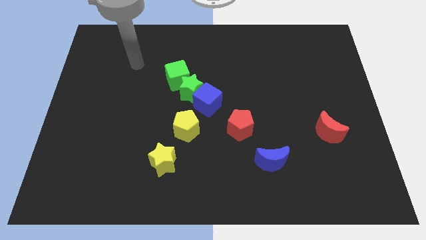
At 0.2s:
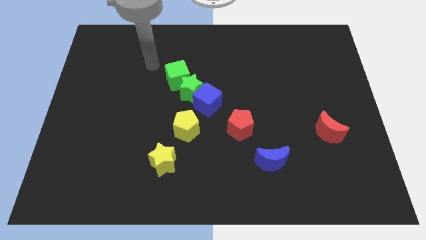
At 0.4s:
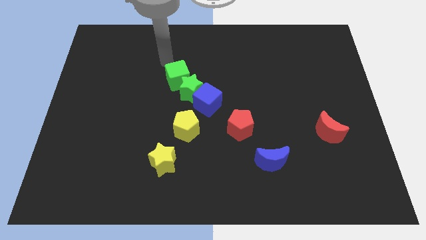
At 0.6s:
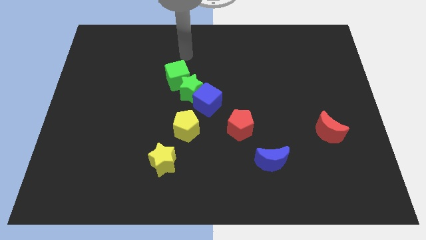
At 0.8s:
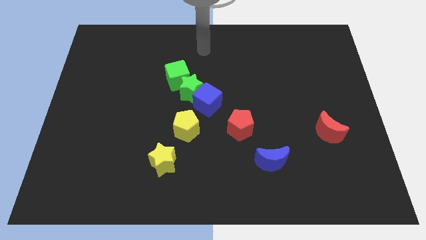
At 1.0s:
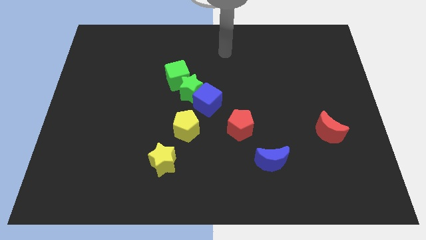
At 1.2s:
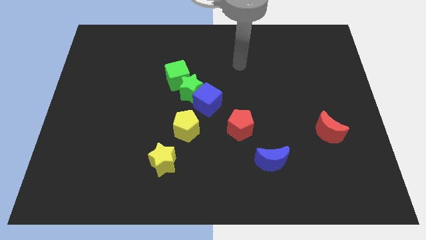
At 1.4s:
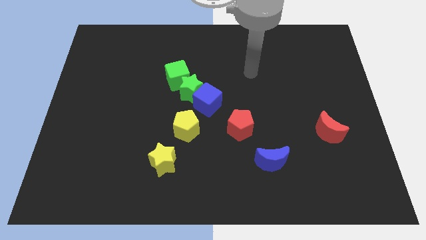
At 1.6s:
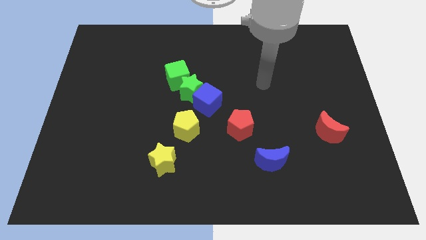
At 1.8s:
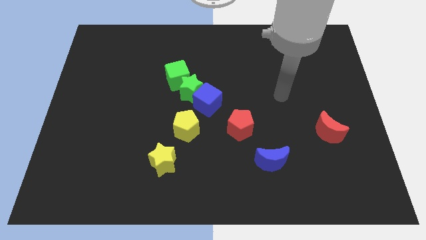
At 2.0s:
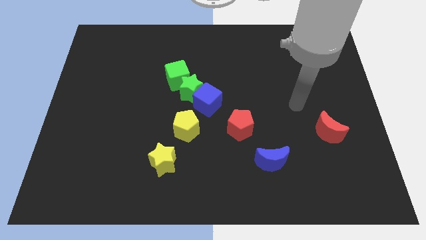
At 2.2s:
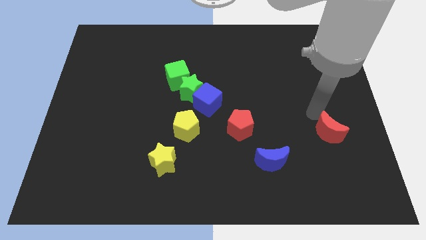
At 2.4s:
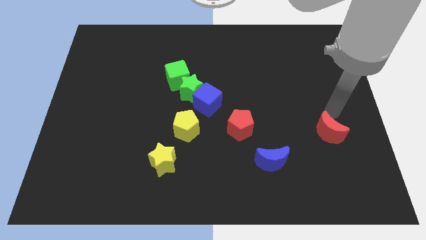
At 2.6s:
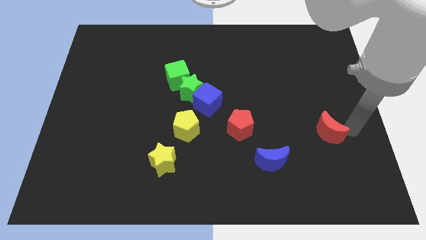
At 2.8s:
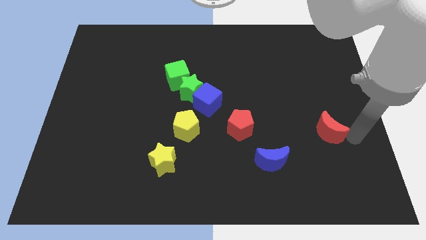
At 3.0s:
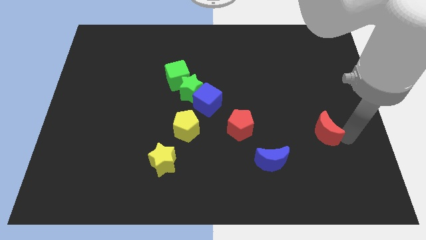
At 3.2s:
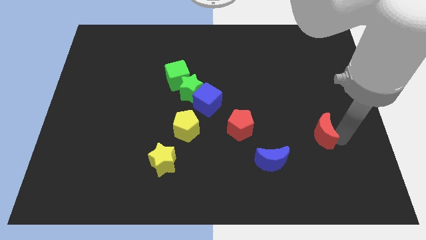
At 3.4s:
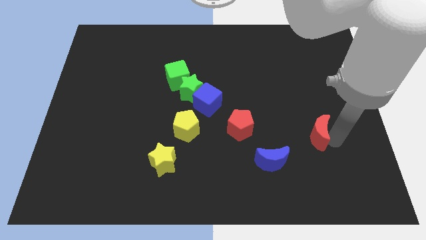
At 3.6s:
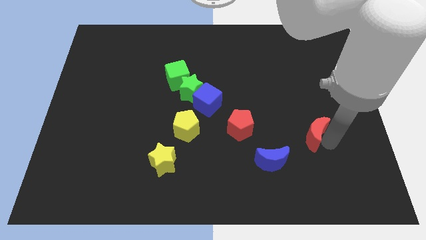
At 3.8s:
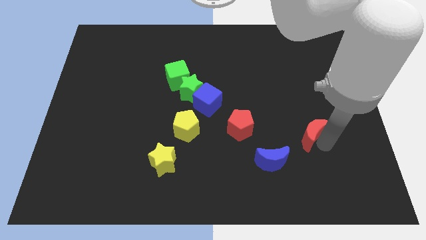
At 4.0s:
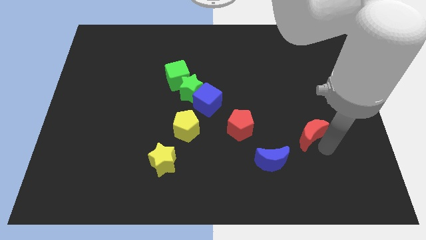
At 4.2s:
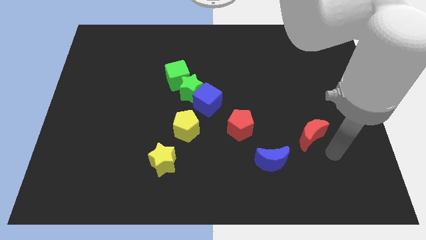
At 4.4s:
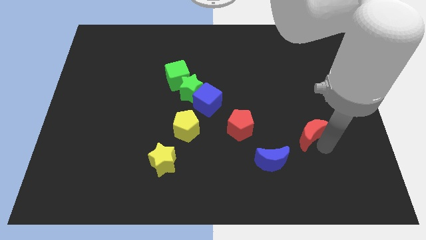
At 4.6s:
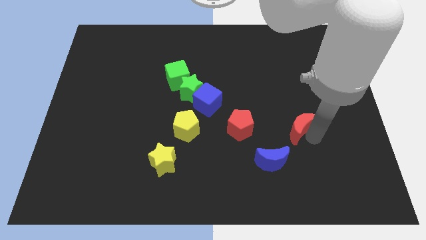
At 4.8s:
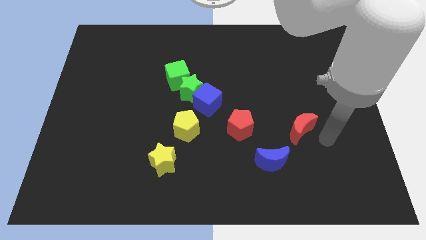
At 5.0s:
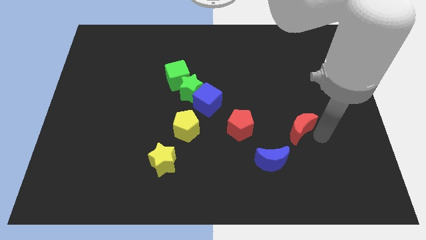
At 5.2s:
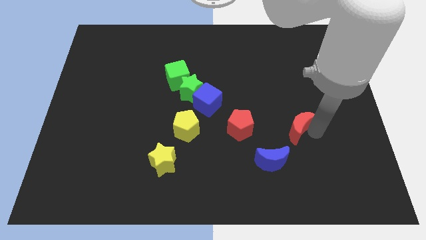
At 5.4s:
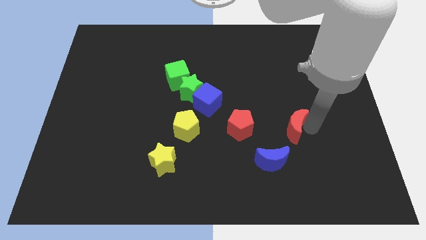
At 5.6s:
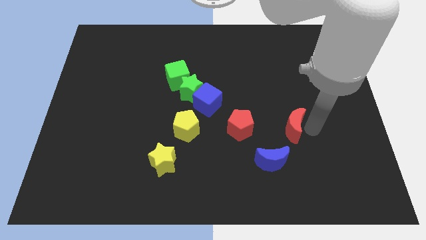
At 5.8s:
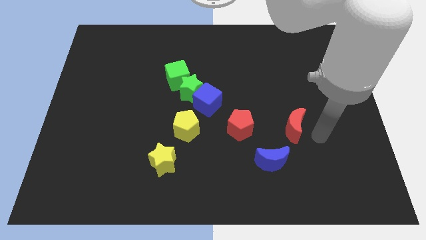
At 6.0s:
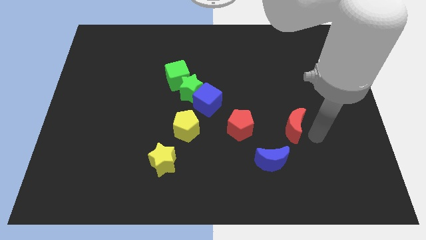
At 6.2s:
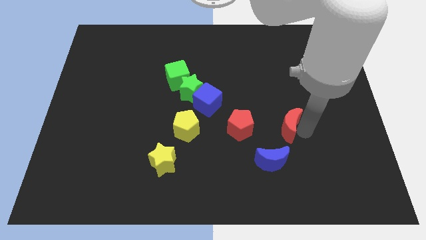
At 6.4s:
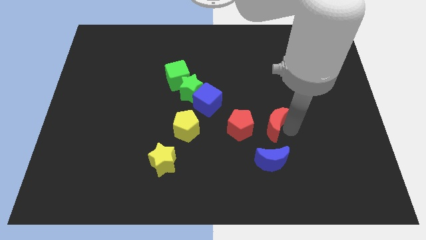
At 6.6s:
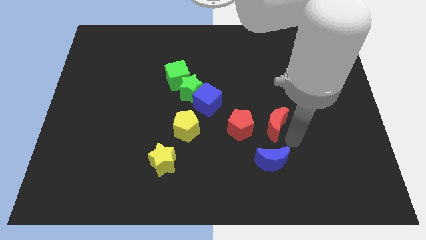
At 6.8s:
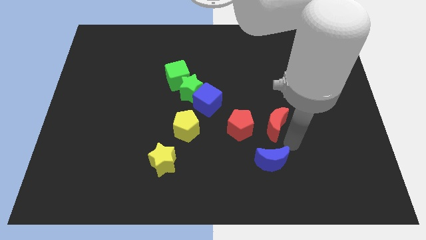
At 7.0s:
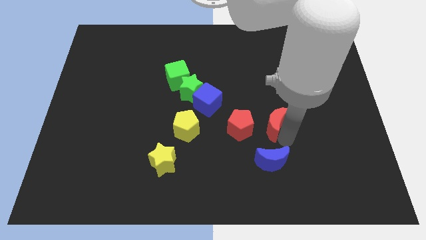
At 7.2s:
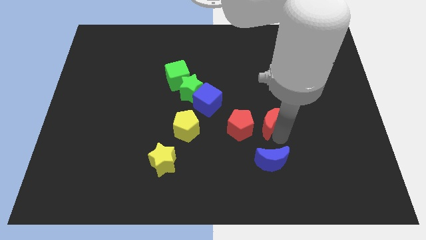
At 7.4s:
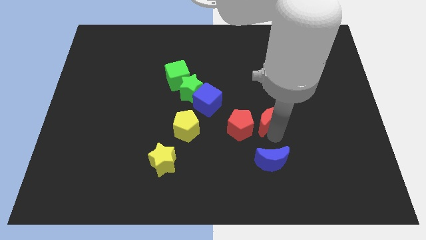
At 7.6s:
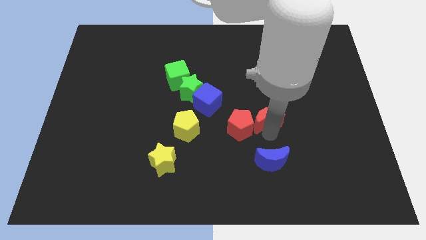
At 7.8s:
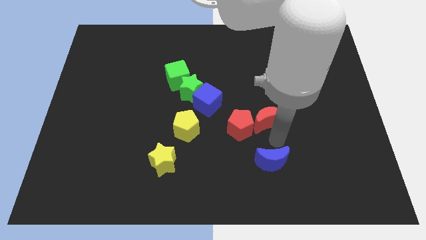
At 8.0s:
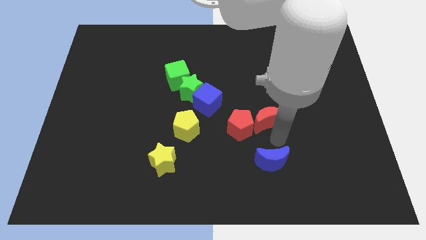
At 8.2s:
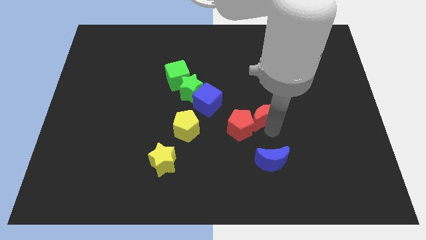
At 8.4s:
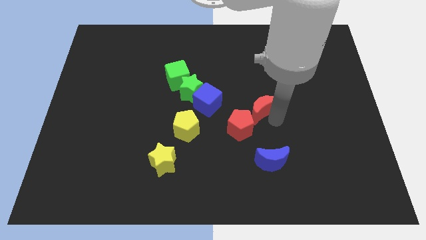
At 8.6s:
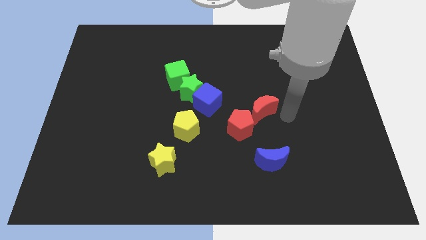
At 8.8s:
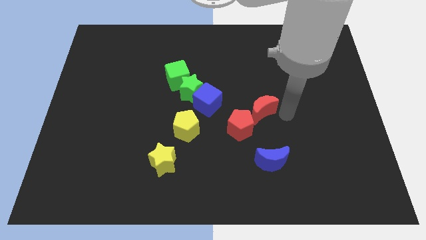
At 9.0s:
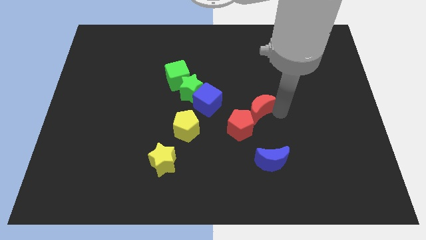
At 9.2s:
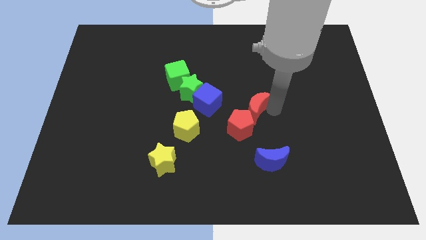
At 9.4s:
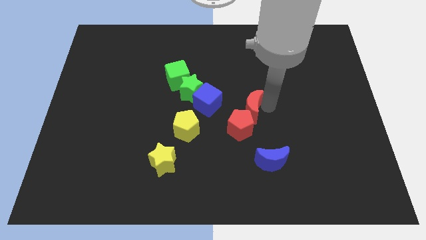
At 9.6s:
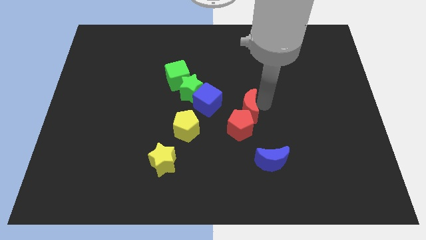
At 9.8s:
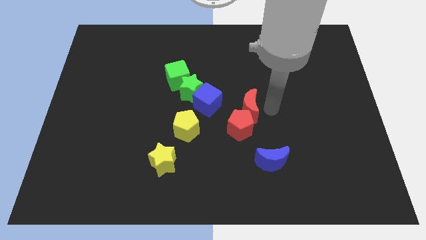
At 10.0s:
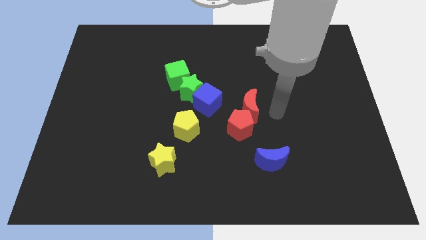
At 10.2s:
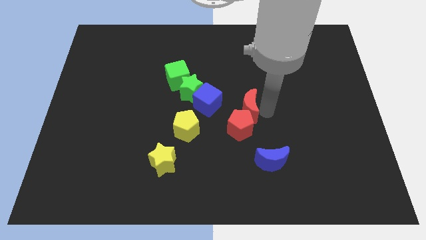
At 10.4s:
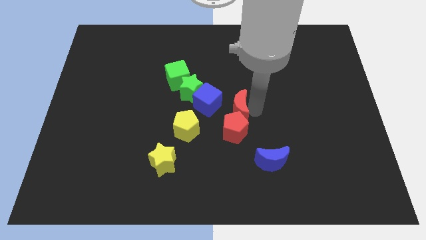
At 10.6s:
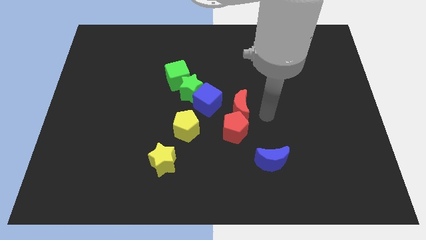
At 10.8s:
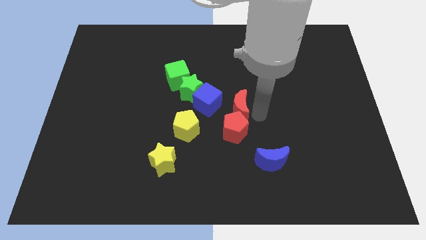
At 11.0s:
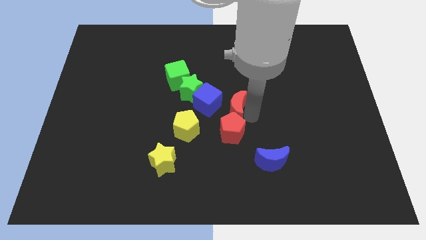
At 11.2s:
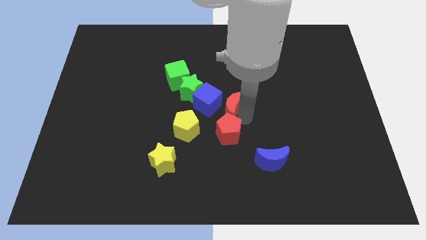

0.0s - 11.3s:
push the red moon towards the blue cube

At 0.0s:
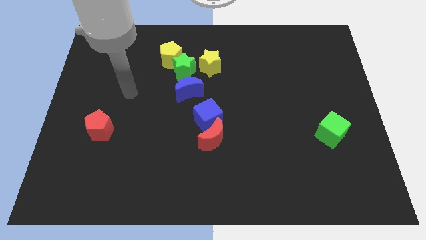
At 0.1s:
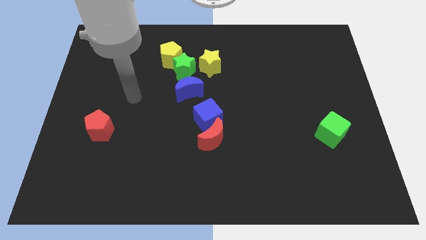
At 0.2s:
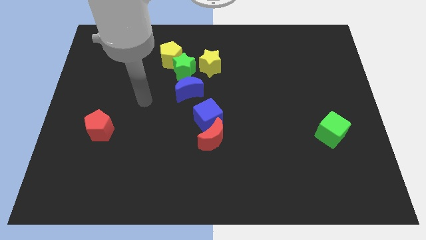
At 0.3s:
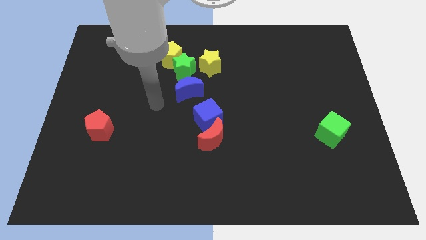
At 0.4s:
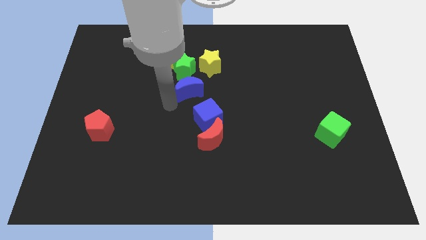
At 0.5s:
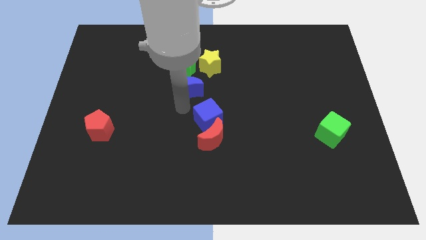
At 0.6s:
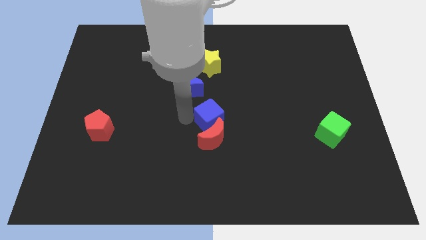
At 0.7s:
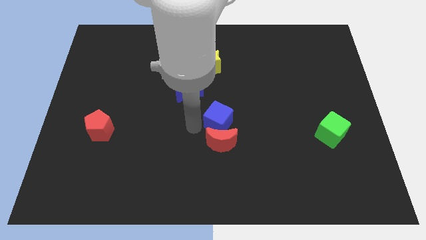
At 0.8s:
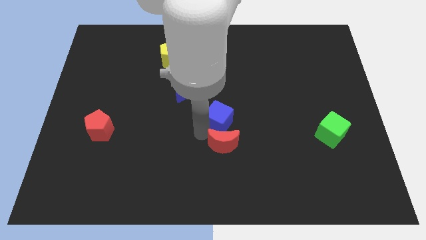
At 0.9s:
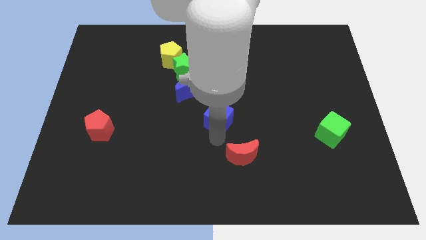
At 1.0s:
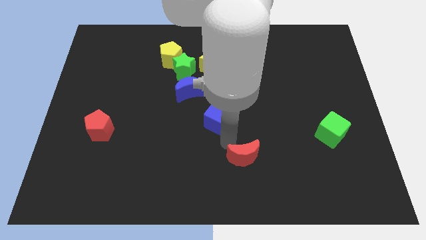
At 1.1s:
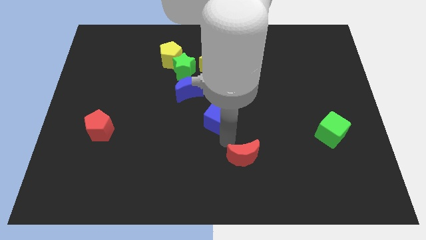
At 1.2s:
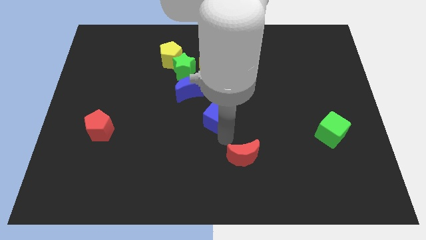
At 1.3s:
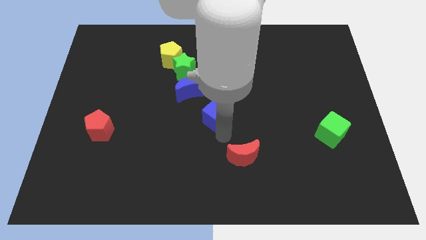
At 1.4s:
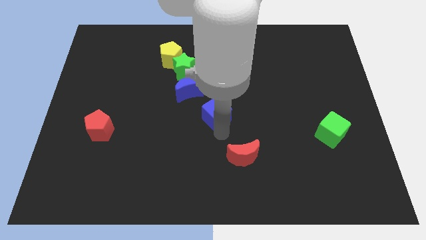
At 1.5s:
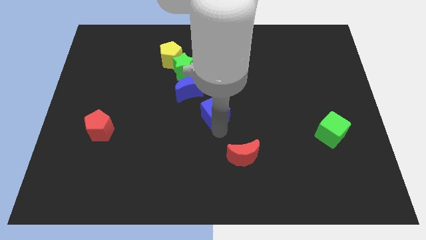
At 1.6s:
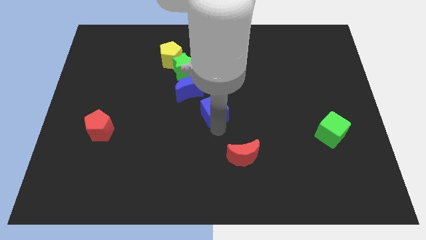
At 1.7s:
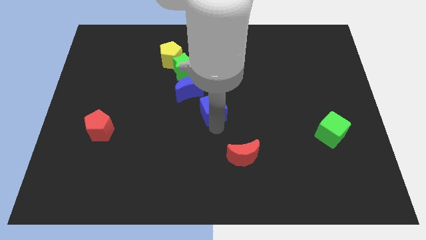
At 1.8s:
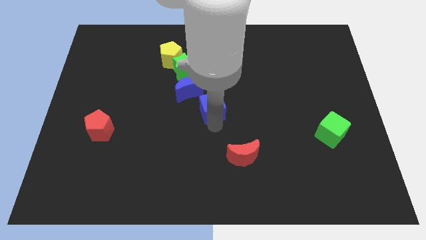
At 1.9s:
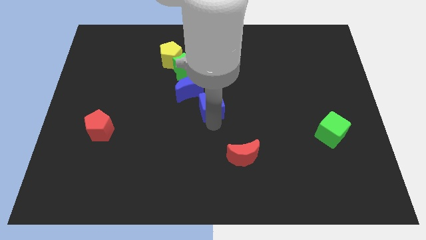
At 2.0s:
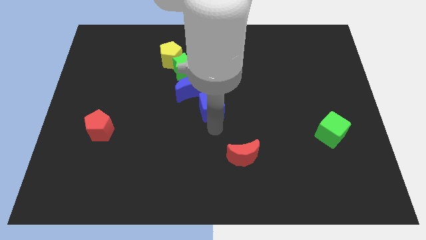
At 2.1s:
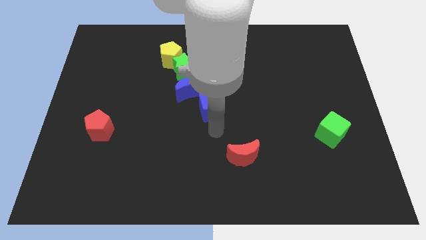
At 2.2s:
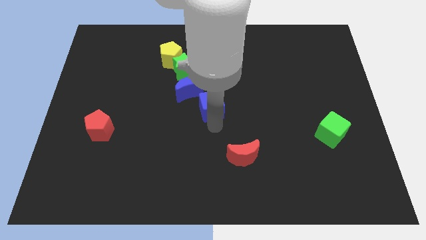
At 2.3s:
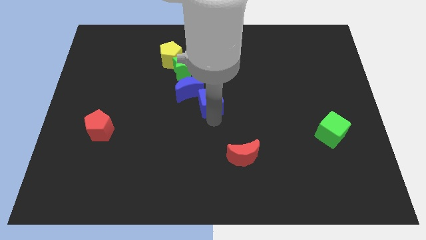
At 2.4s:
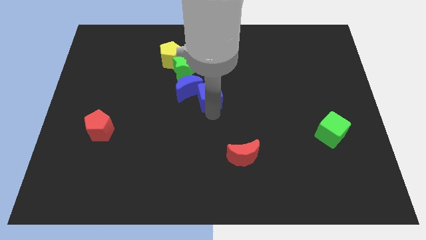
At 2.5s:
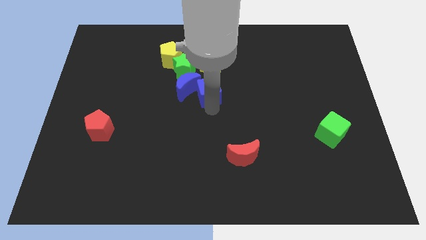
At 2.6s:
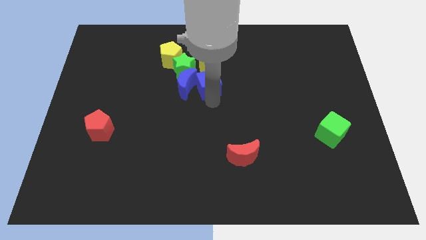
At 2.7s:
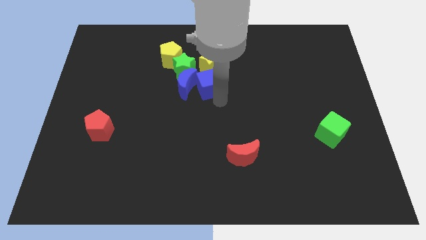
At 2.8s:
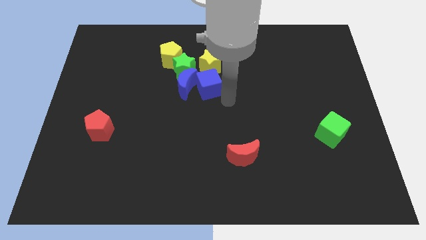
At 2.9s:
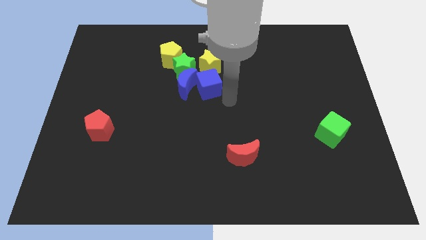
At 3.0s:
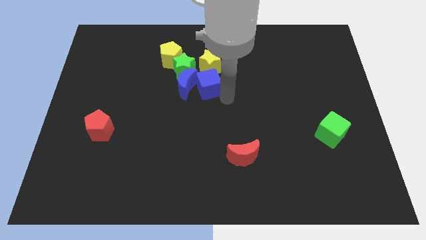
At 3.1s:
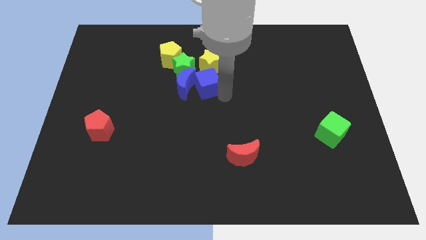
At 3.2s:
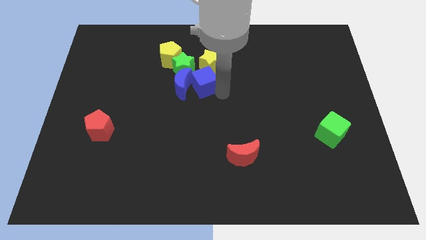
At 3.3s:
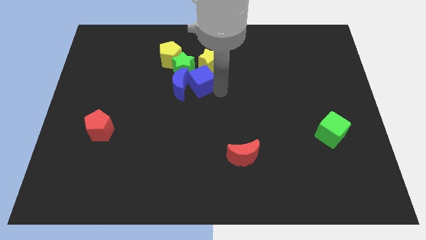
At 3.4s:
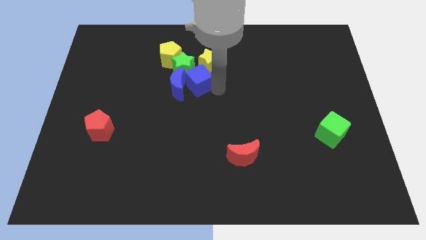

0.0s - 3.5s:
slide the blue cube towards the green star
